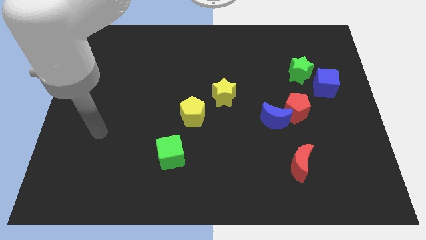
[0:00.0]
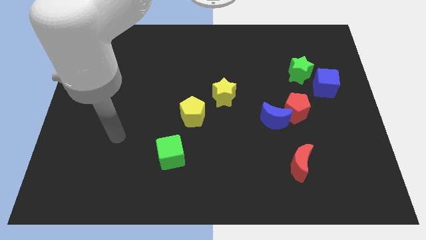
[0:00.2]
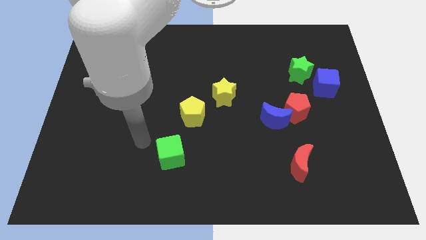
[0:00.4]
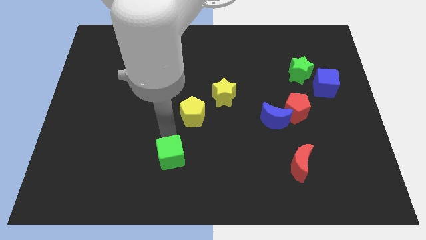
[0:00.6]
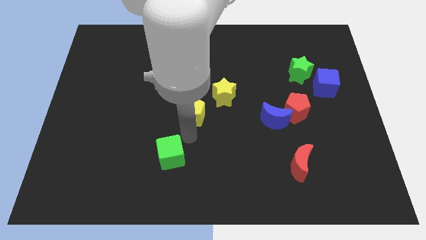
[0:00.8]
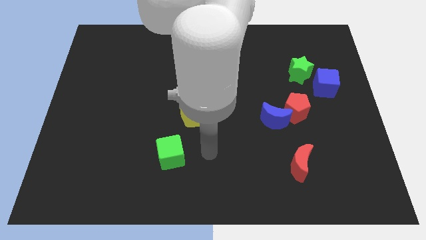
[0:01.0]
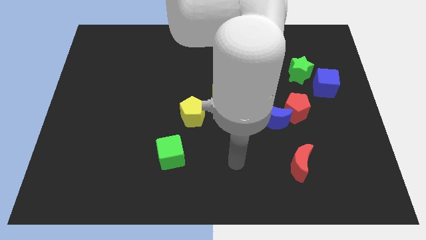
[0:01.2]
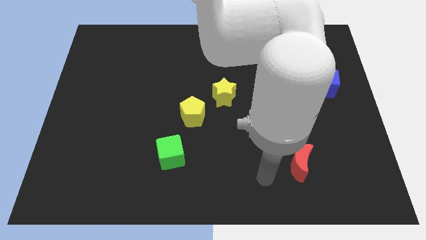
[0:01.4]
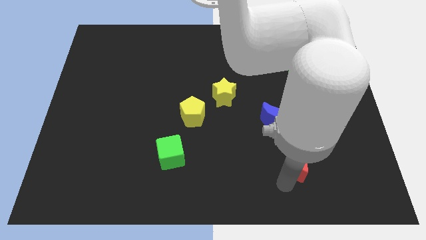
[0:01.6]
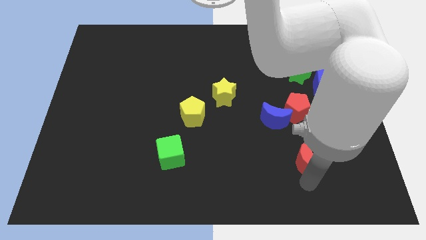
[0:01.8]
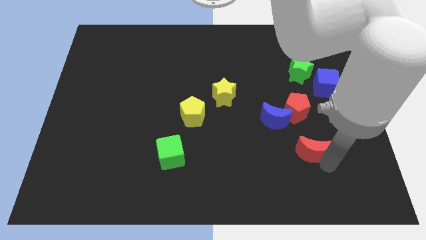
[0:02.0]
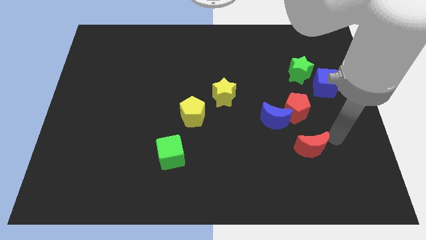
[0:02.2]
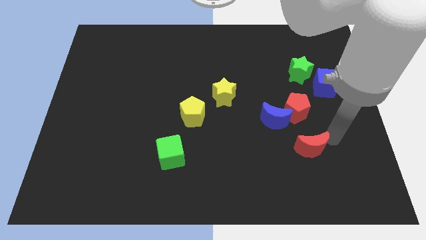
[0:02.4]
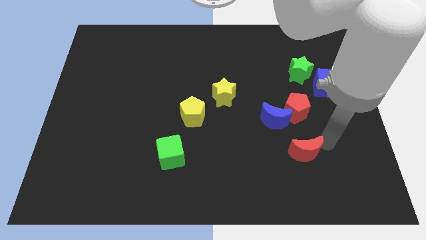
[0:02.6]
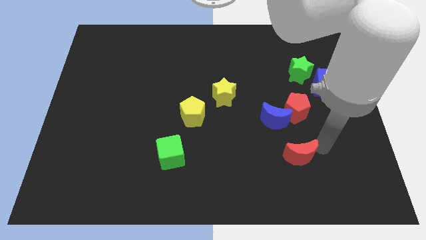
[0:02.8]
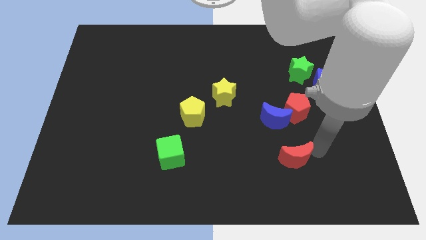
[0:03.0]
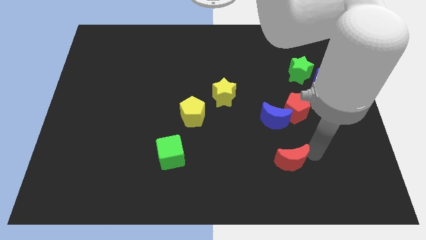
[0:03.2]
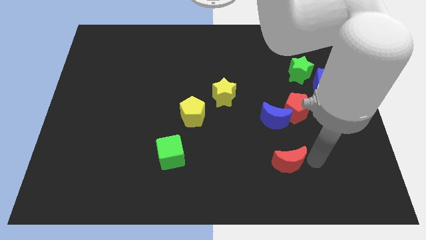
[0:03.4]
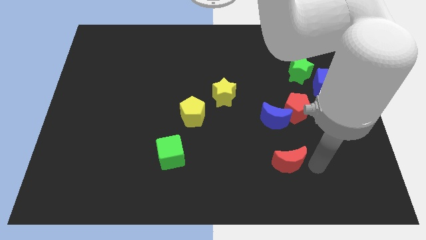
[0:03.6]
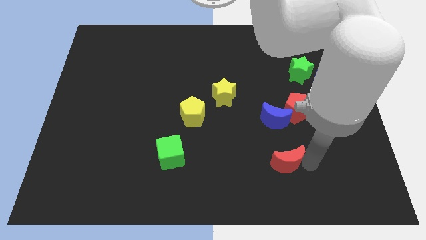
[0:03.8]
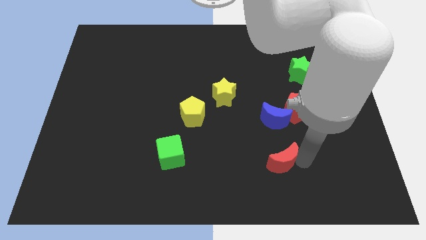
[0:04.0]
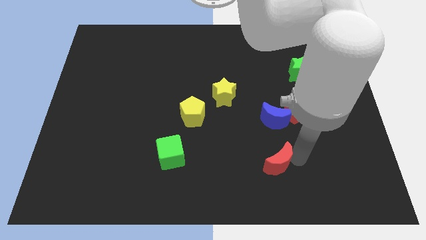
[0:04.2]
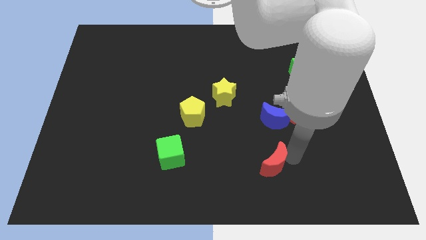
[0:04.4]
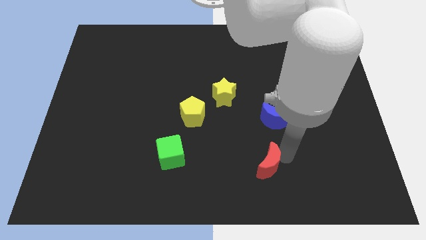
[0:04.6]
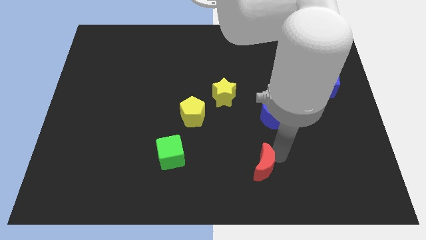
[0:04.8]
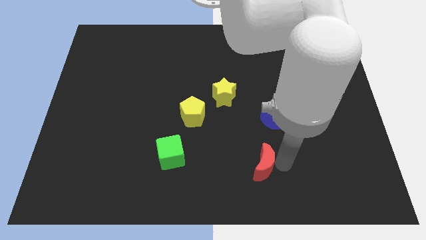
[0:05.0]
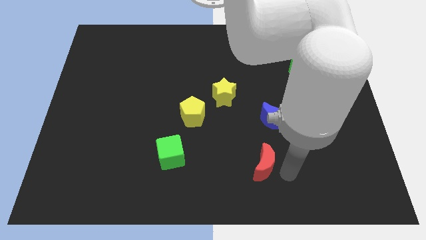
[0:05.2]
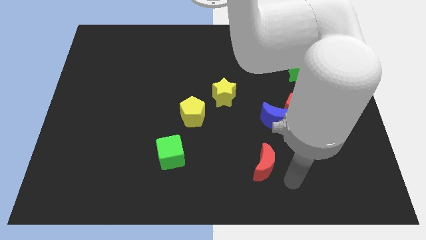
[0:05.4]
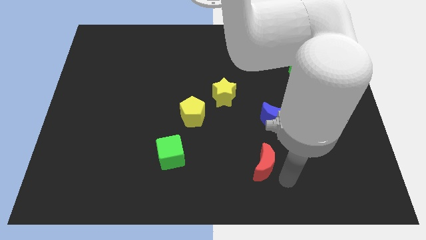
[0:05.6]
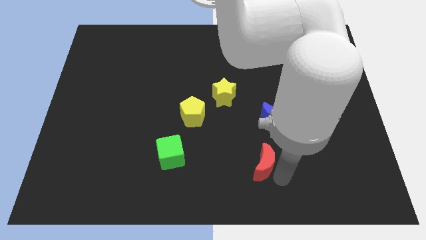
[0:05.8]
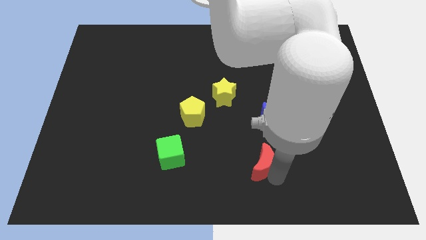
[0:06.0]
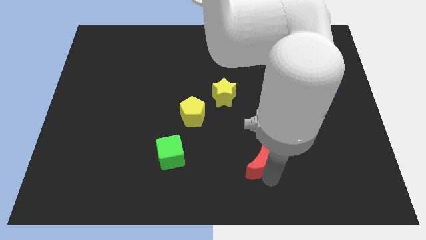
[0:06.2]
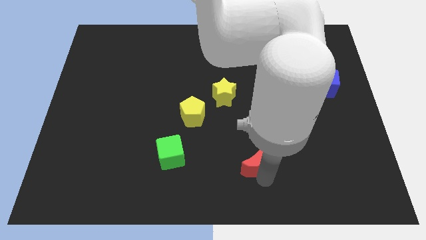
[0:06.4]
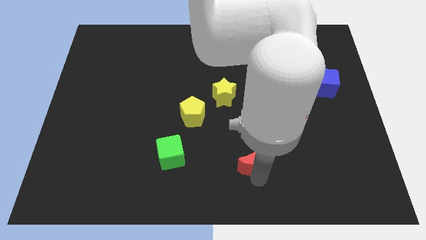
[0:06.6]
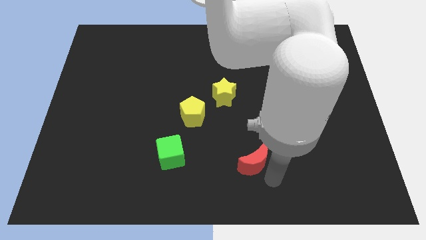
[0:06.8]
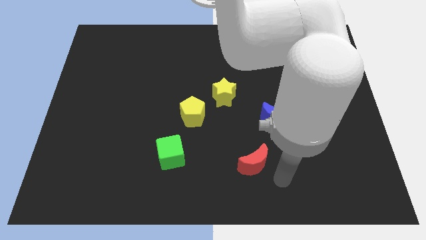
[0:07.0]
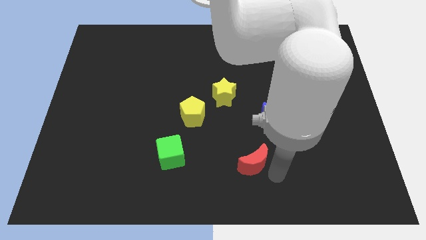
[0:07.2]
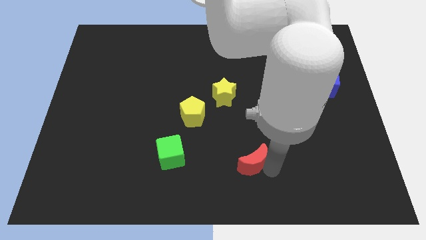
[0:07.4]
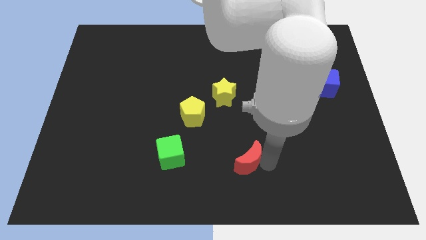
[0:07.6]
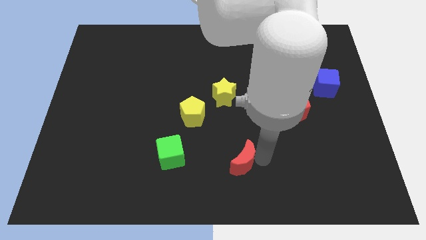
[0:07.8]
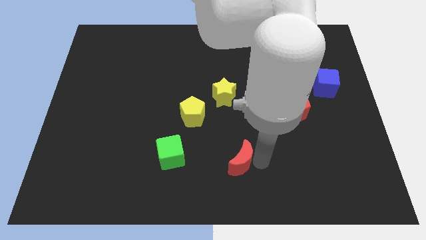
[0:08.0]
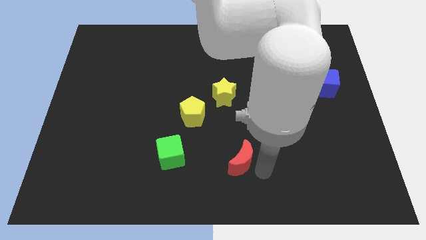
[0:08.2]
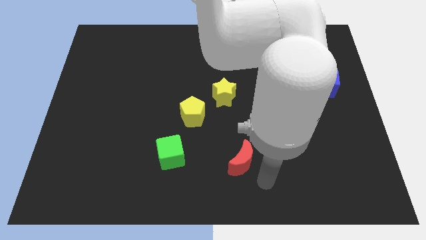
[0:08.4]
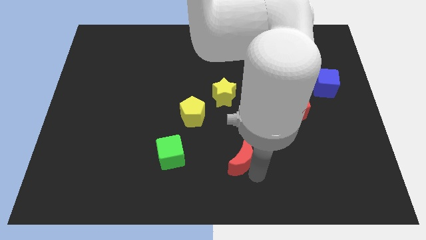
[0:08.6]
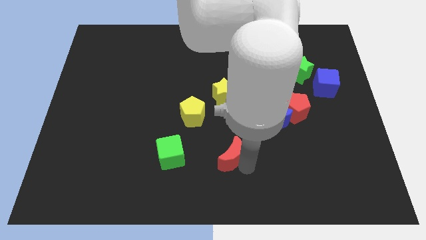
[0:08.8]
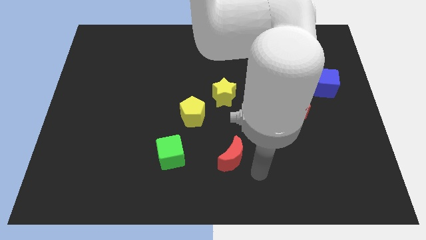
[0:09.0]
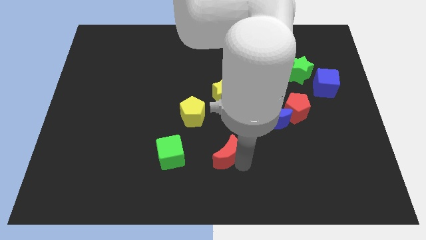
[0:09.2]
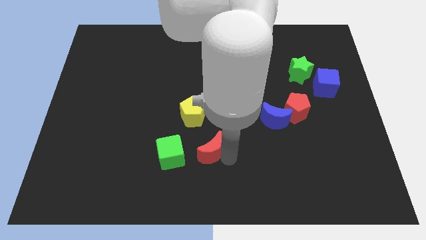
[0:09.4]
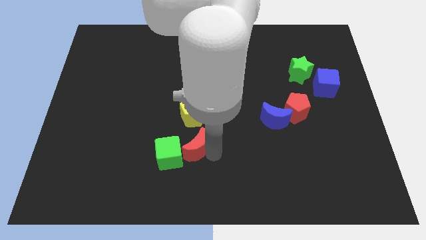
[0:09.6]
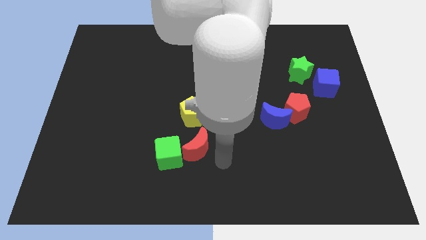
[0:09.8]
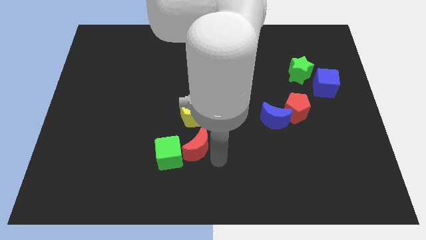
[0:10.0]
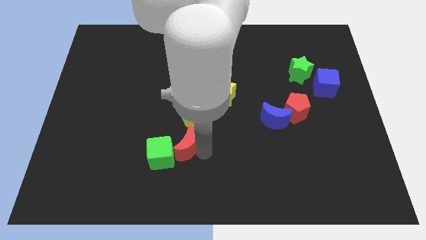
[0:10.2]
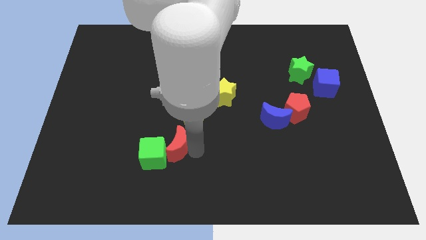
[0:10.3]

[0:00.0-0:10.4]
move the red moon to the bottom left side of the yellow pentagon
